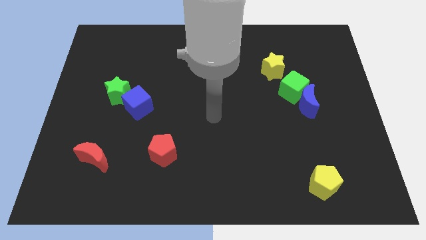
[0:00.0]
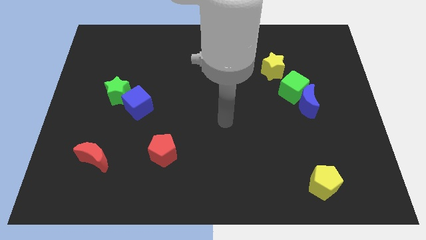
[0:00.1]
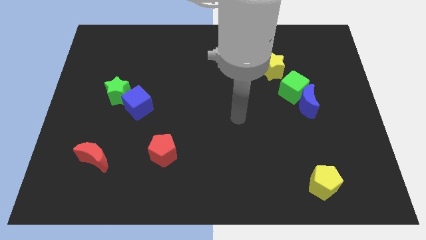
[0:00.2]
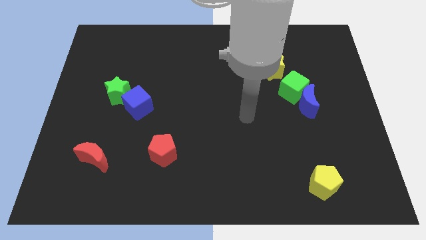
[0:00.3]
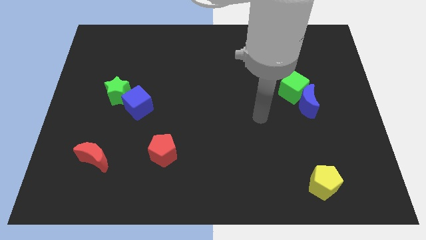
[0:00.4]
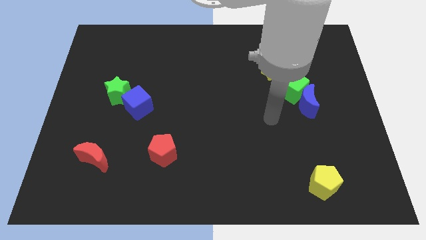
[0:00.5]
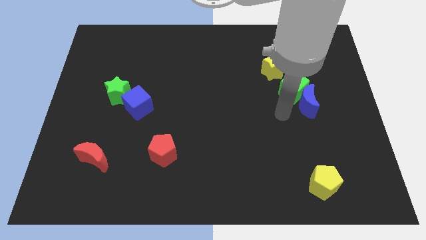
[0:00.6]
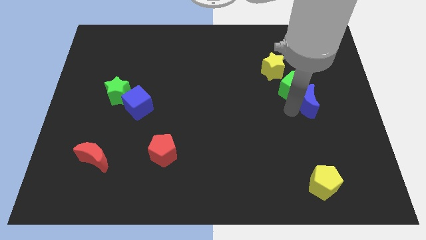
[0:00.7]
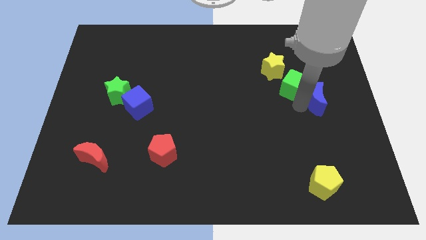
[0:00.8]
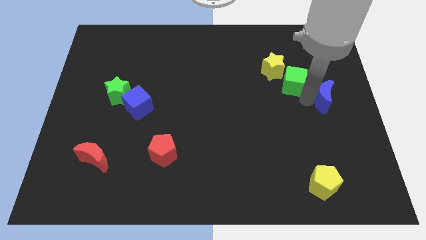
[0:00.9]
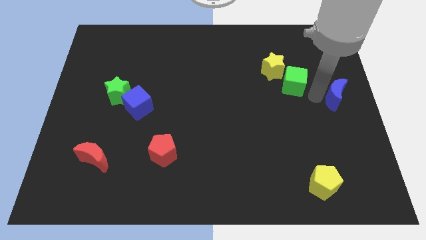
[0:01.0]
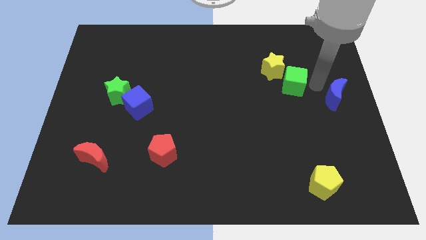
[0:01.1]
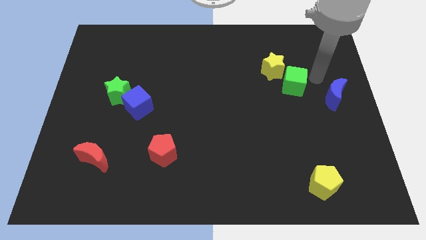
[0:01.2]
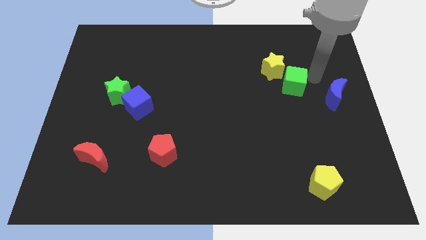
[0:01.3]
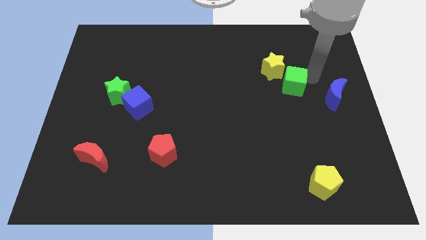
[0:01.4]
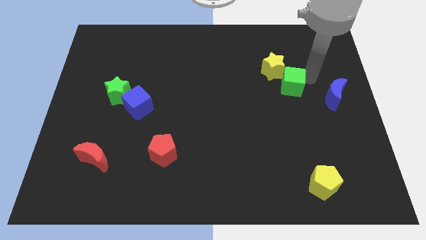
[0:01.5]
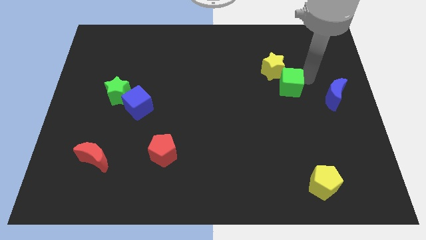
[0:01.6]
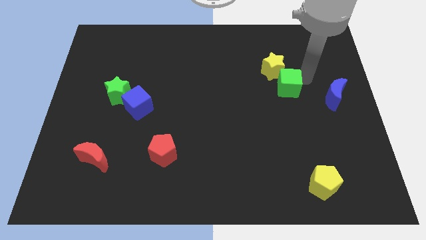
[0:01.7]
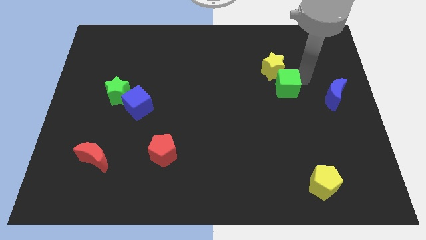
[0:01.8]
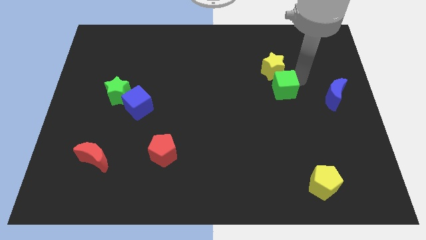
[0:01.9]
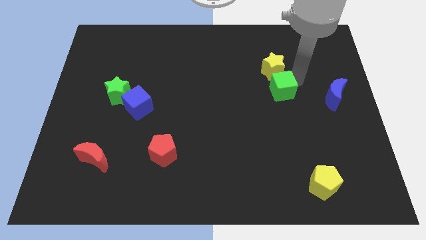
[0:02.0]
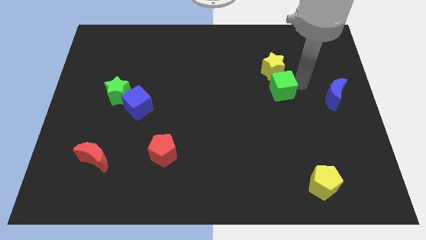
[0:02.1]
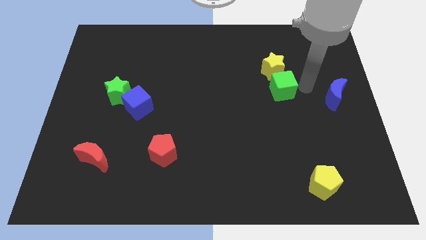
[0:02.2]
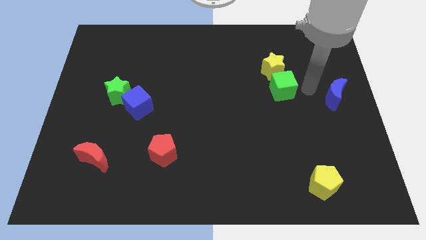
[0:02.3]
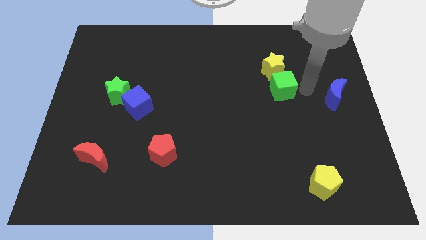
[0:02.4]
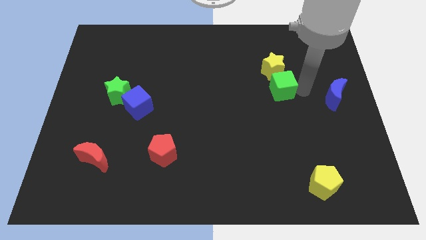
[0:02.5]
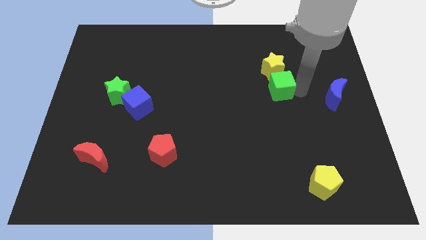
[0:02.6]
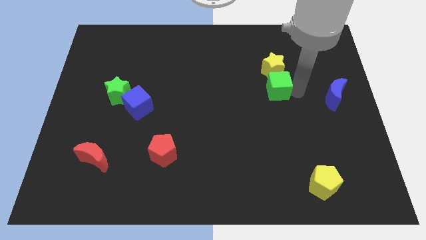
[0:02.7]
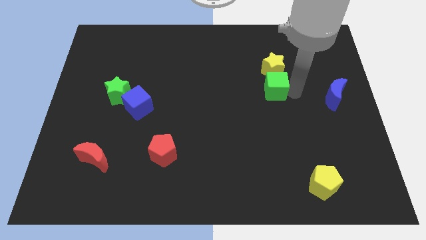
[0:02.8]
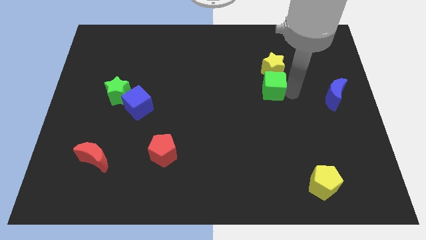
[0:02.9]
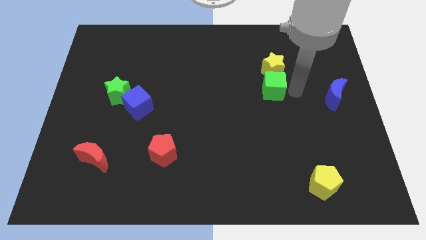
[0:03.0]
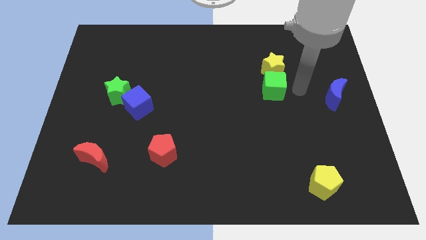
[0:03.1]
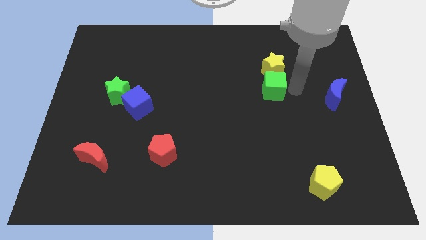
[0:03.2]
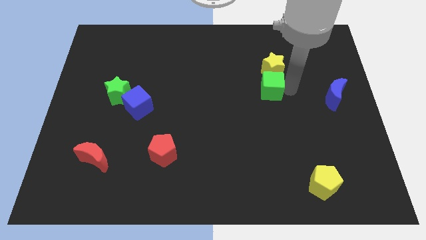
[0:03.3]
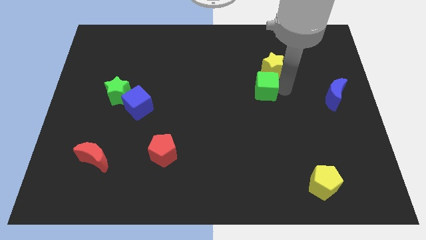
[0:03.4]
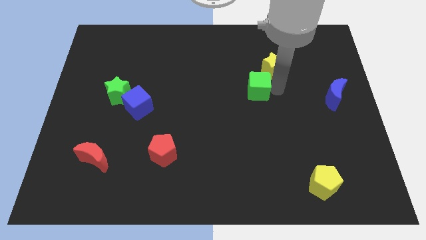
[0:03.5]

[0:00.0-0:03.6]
slide the green cube to the left somewhat

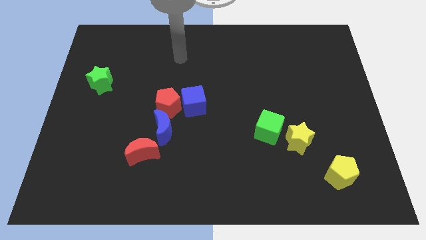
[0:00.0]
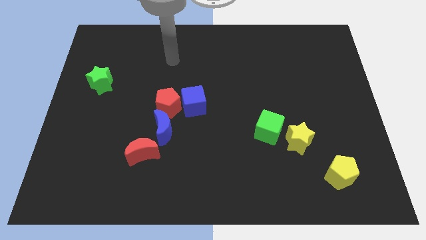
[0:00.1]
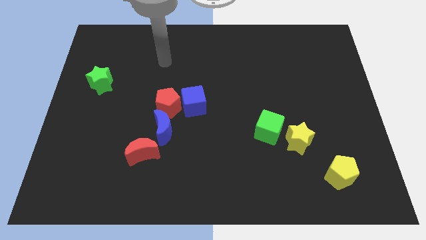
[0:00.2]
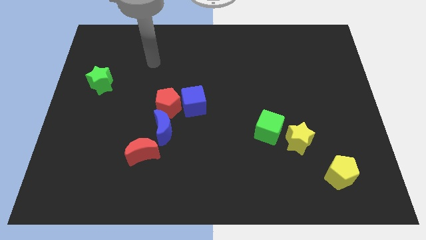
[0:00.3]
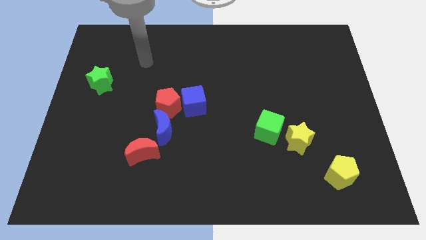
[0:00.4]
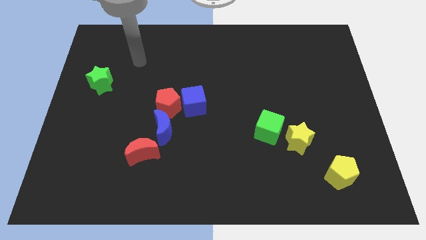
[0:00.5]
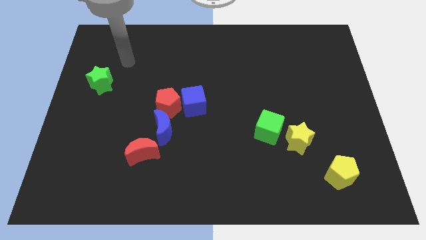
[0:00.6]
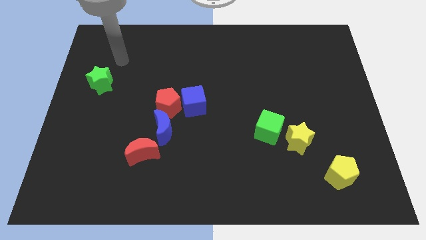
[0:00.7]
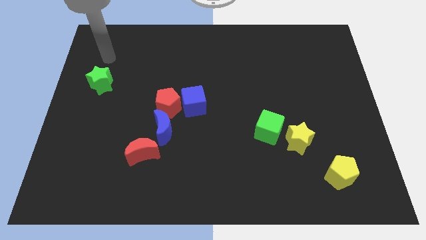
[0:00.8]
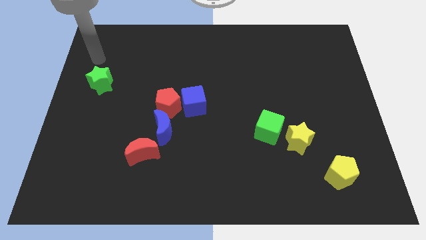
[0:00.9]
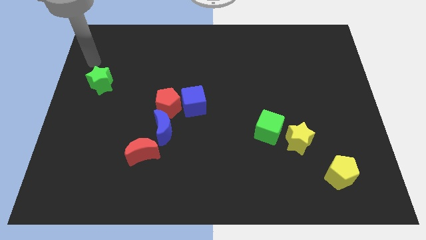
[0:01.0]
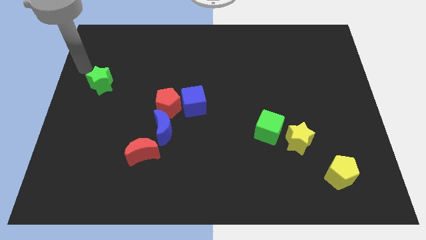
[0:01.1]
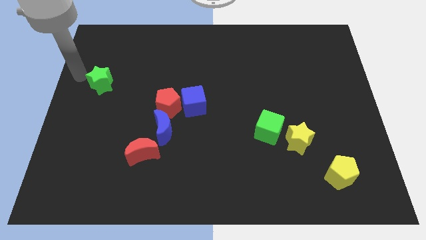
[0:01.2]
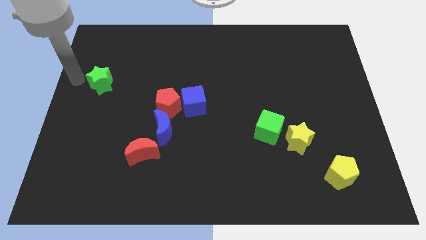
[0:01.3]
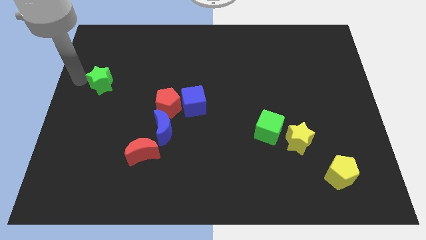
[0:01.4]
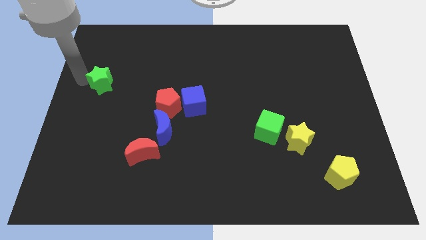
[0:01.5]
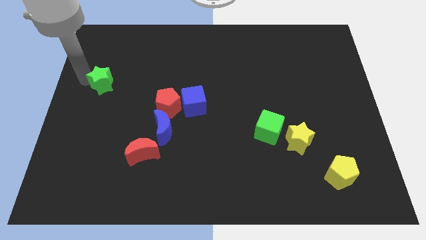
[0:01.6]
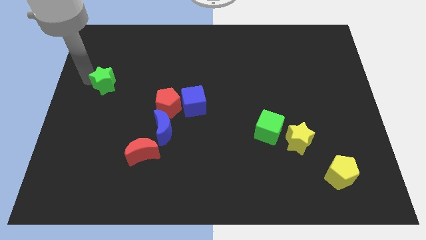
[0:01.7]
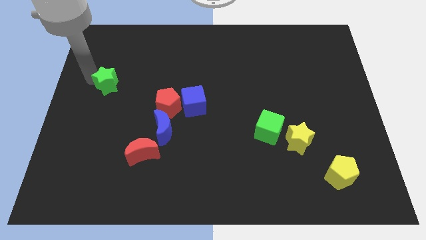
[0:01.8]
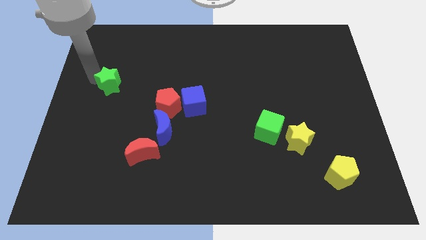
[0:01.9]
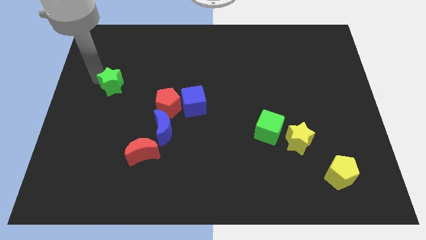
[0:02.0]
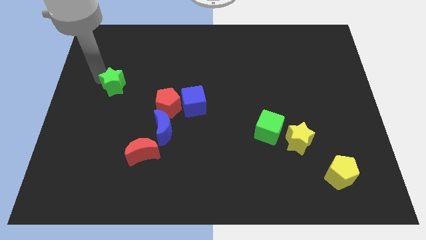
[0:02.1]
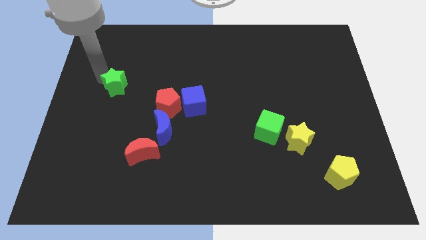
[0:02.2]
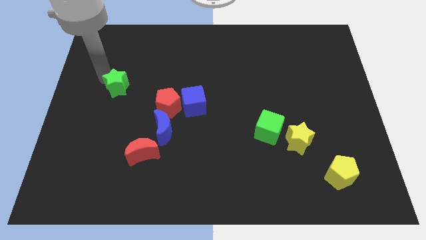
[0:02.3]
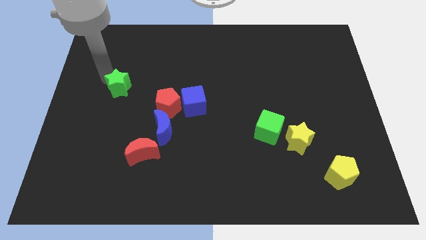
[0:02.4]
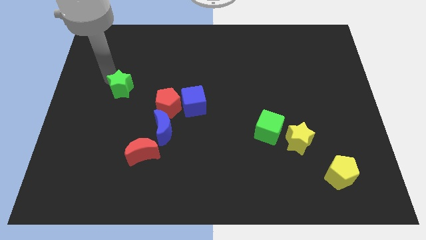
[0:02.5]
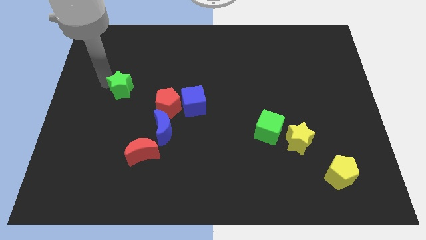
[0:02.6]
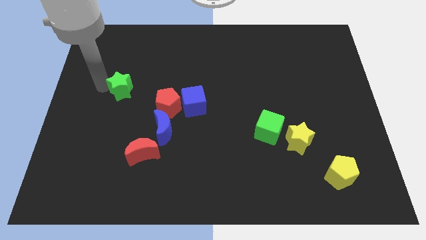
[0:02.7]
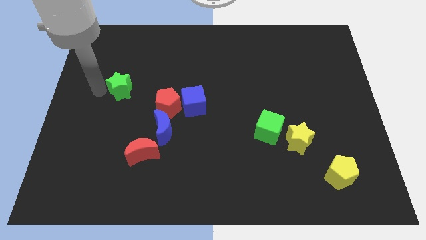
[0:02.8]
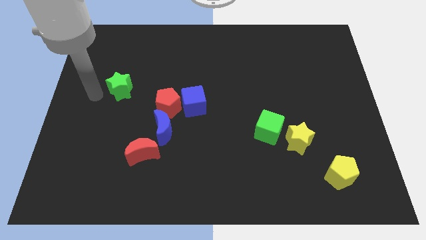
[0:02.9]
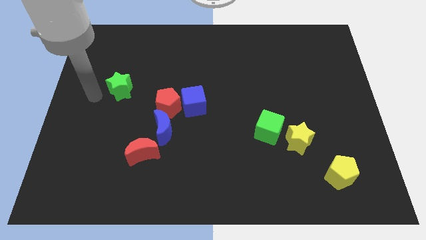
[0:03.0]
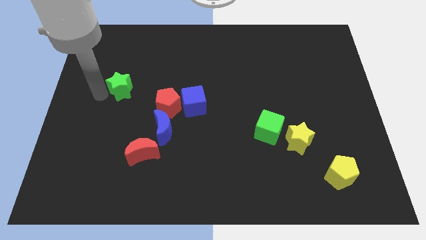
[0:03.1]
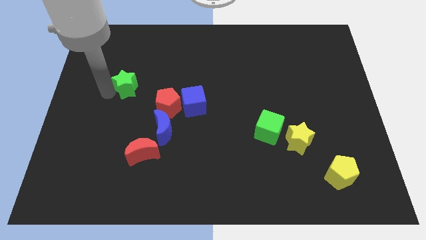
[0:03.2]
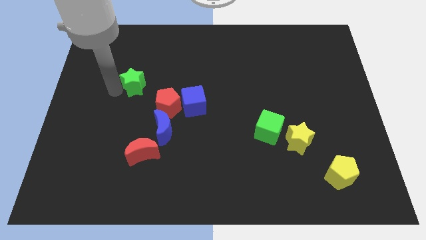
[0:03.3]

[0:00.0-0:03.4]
slide the green star a little to the right

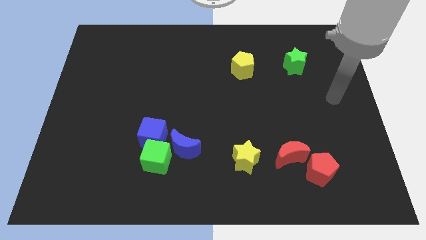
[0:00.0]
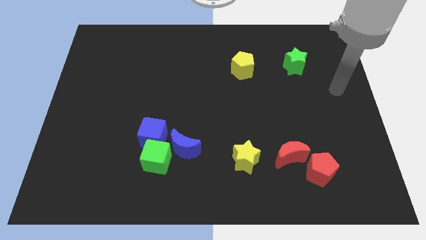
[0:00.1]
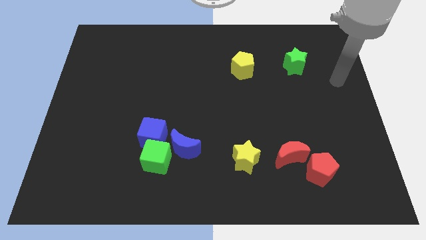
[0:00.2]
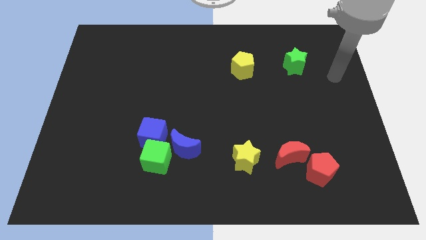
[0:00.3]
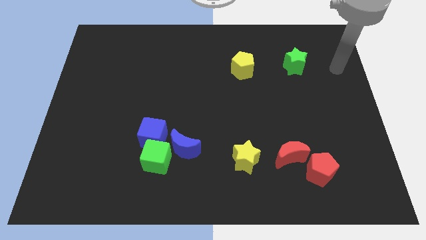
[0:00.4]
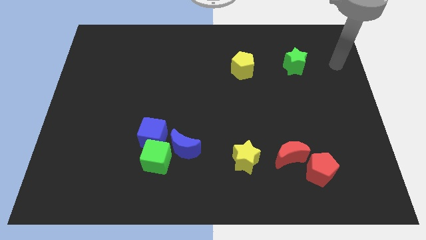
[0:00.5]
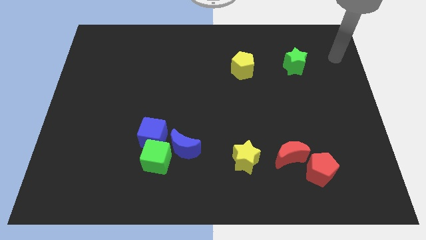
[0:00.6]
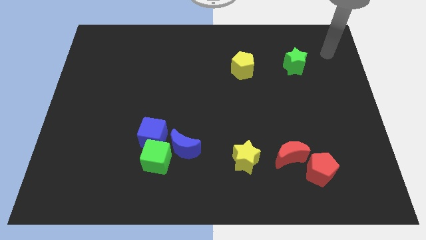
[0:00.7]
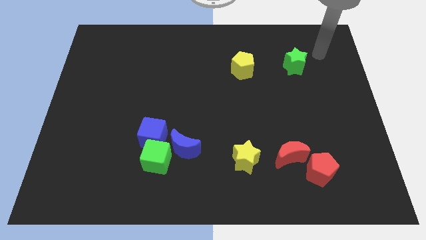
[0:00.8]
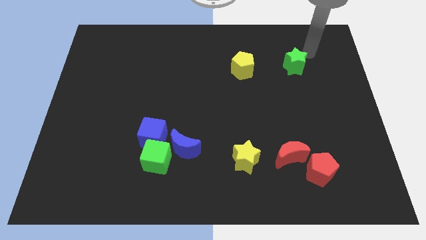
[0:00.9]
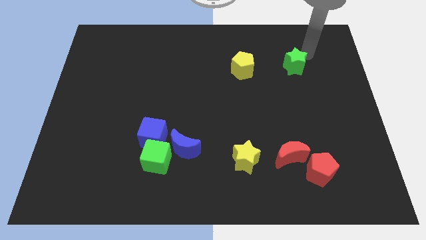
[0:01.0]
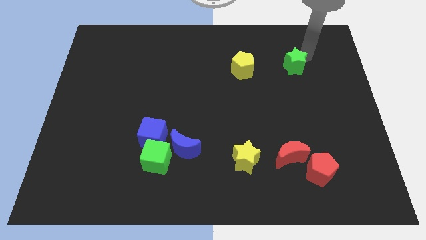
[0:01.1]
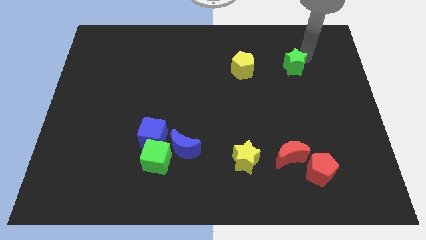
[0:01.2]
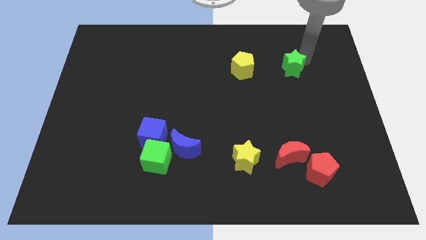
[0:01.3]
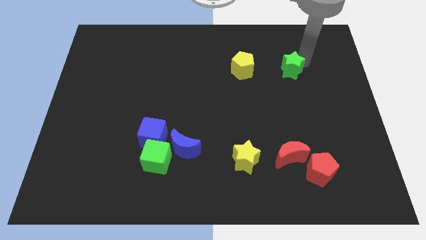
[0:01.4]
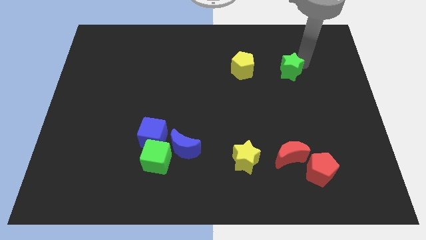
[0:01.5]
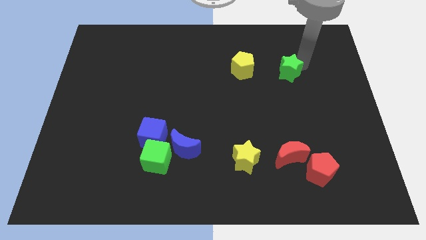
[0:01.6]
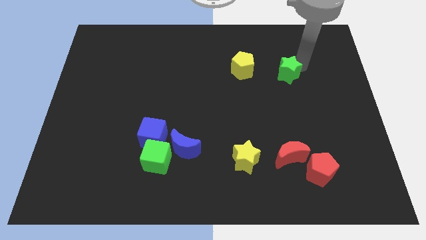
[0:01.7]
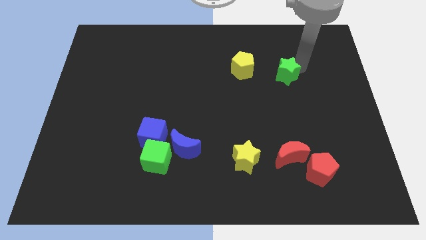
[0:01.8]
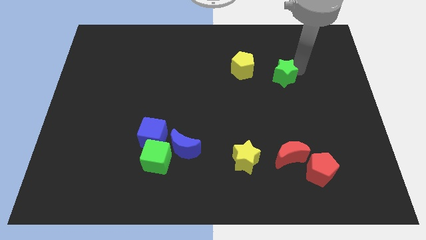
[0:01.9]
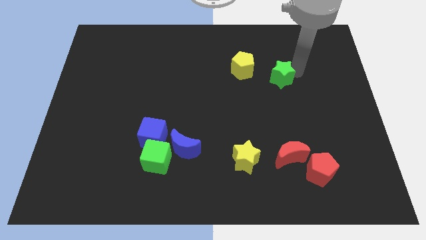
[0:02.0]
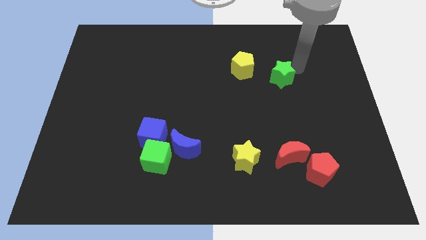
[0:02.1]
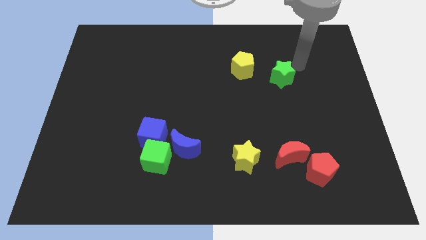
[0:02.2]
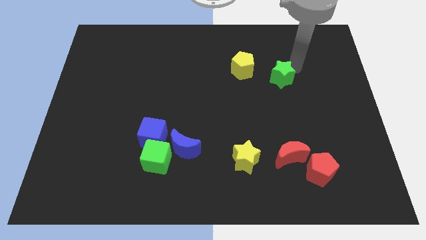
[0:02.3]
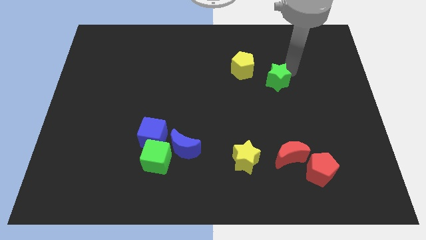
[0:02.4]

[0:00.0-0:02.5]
slide the green star downwards and then left a little bit
